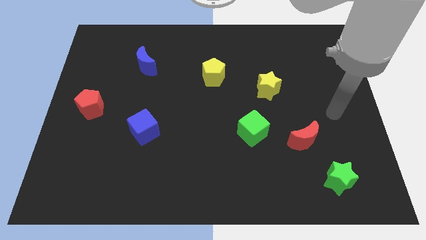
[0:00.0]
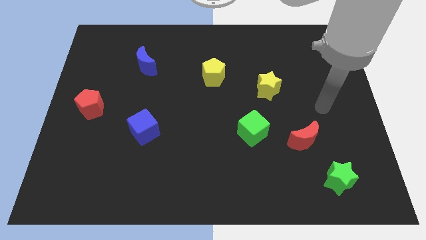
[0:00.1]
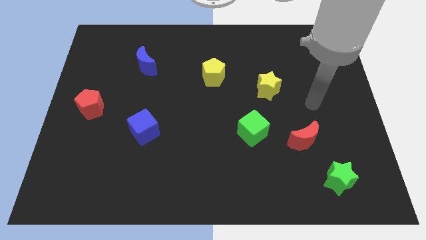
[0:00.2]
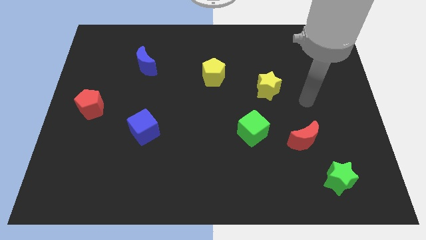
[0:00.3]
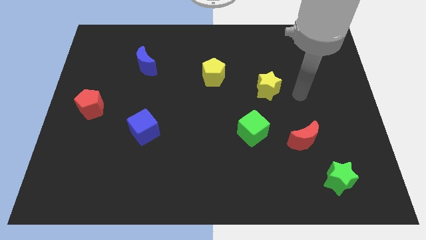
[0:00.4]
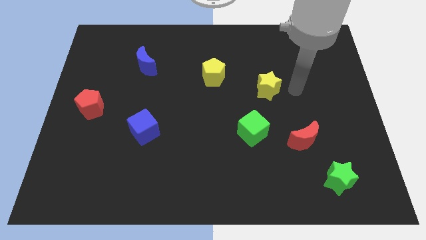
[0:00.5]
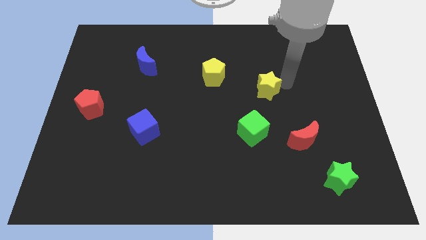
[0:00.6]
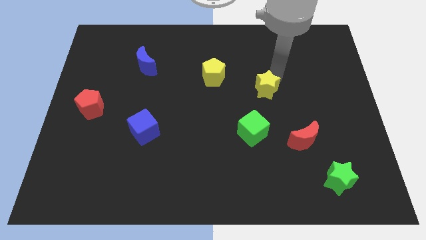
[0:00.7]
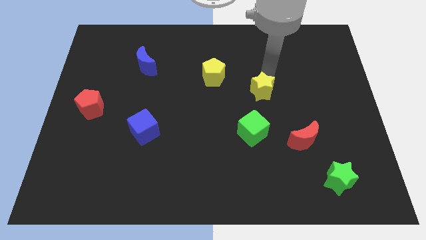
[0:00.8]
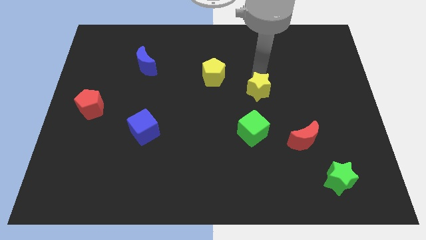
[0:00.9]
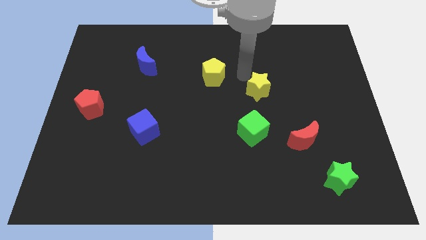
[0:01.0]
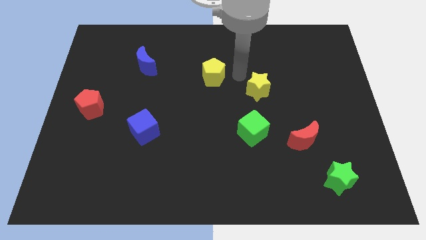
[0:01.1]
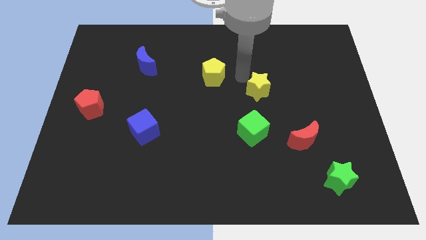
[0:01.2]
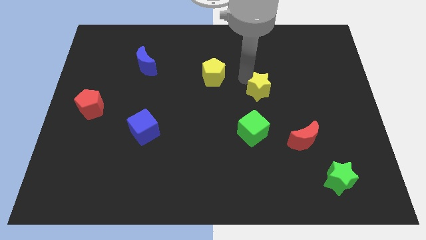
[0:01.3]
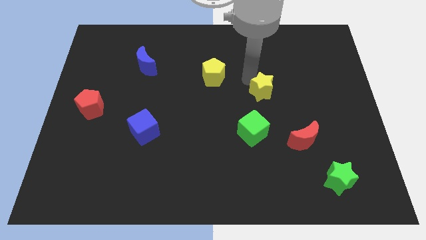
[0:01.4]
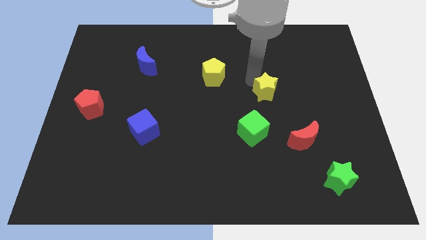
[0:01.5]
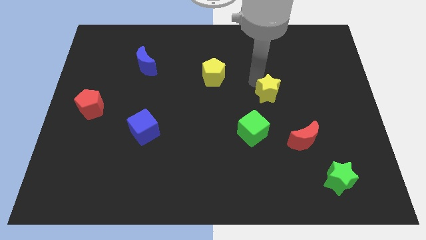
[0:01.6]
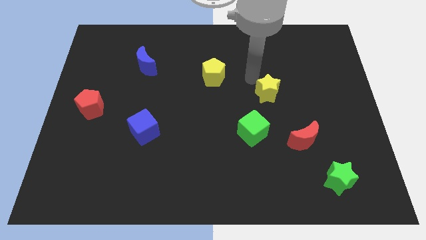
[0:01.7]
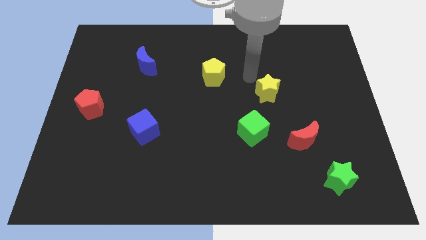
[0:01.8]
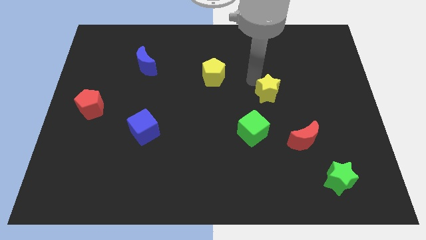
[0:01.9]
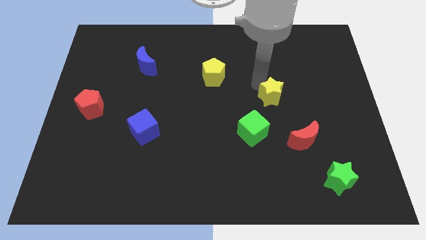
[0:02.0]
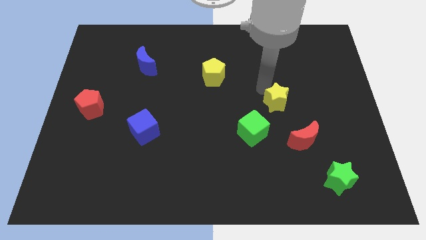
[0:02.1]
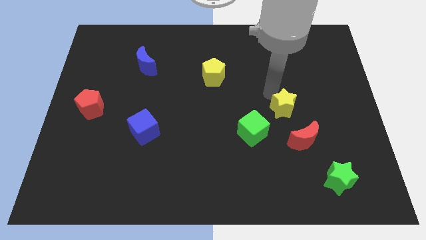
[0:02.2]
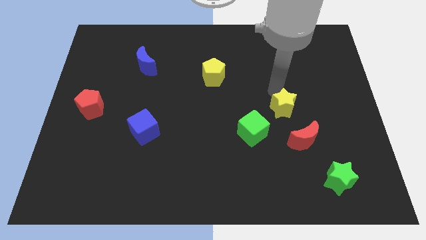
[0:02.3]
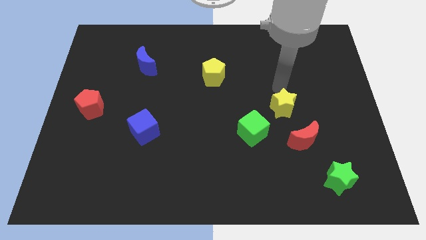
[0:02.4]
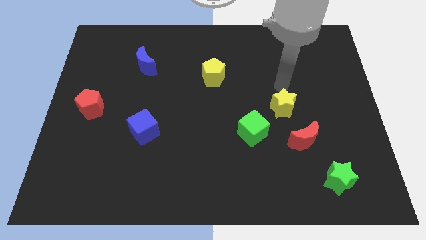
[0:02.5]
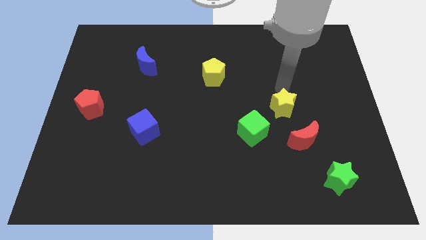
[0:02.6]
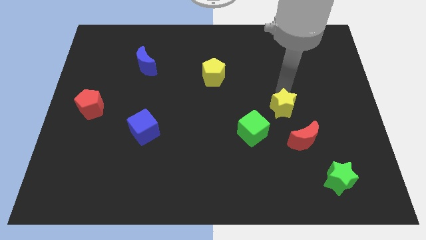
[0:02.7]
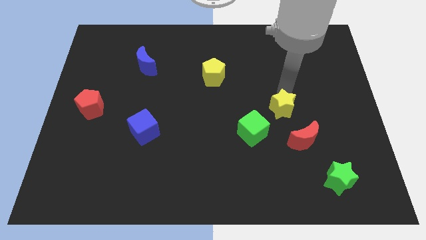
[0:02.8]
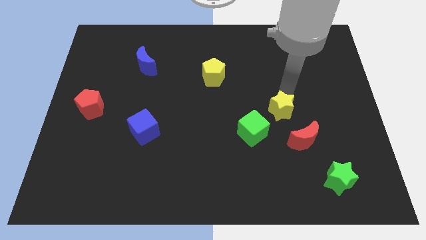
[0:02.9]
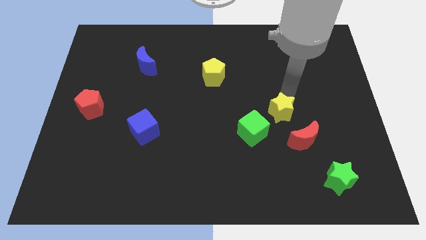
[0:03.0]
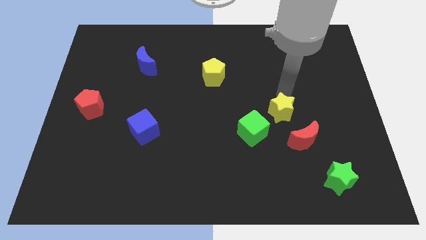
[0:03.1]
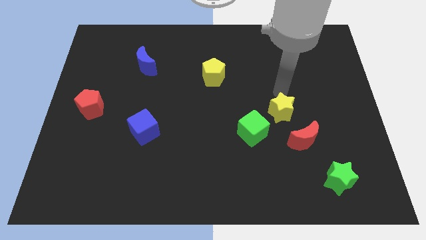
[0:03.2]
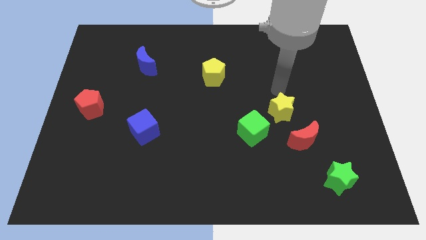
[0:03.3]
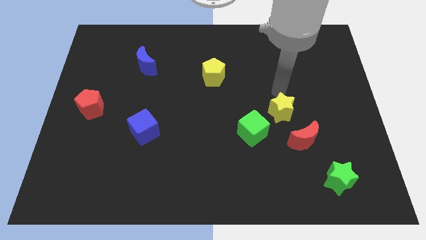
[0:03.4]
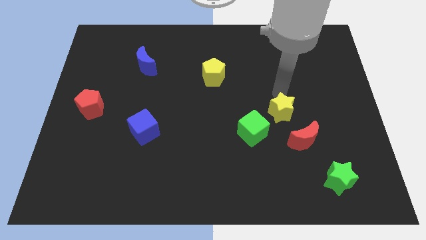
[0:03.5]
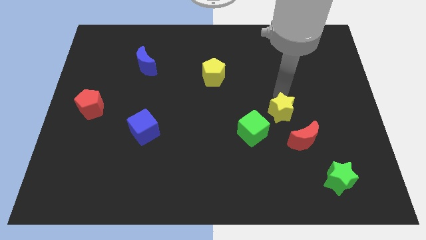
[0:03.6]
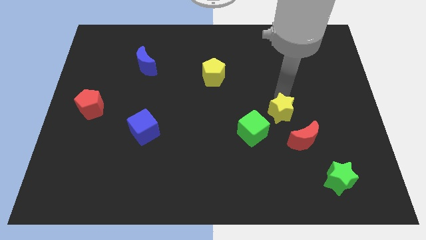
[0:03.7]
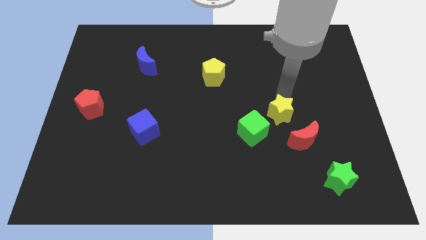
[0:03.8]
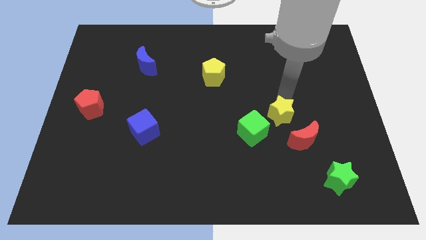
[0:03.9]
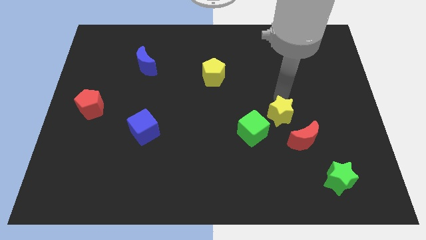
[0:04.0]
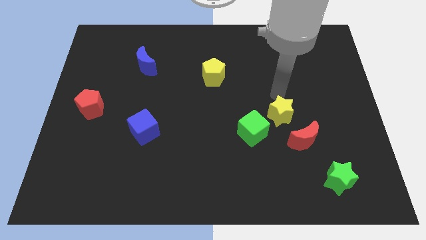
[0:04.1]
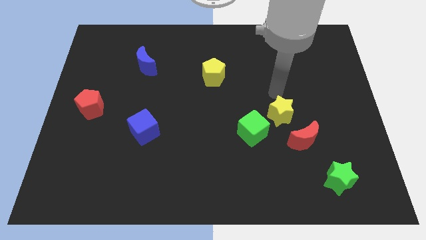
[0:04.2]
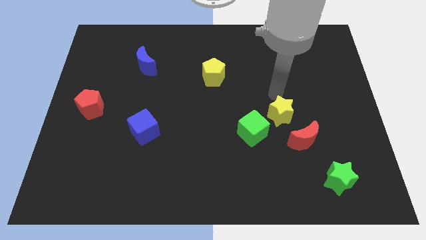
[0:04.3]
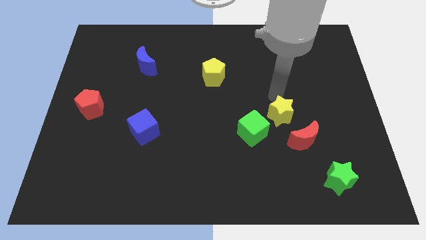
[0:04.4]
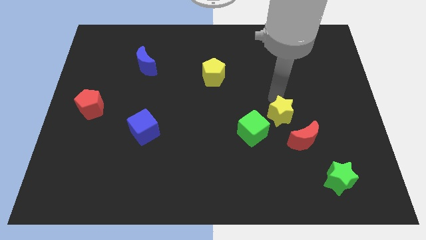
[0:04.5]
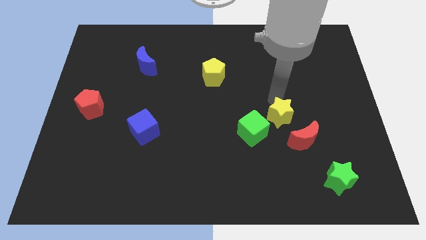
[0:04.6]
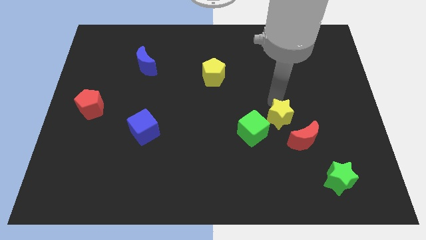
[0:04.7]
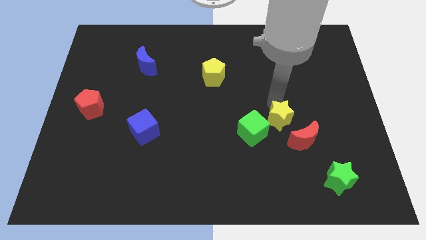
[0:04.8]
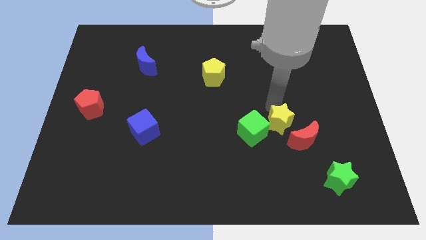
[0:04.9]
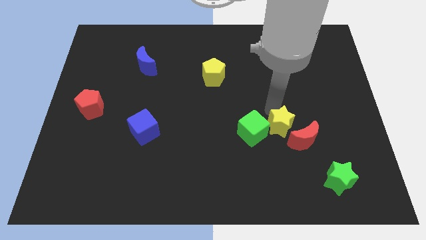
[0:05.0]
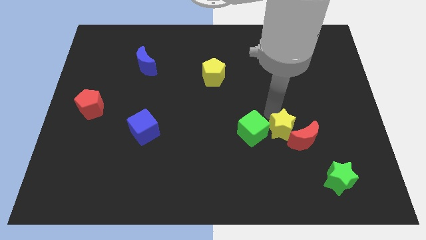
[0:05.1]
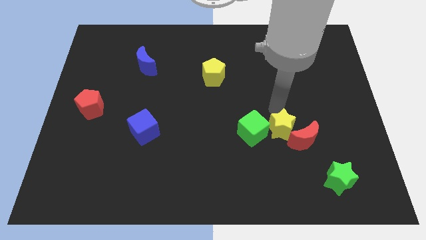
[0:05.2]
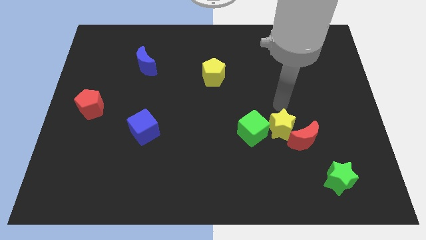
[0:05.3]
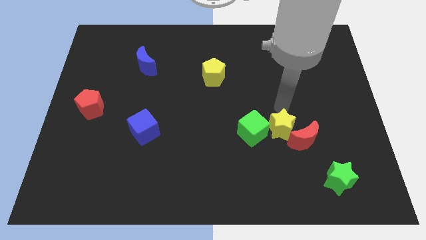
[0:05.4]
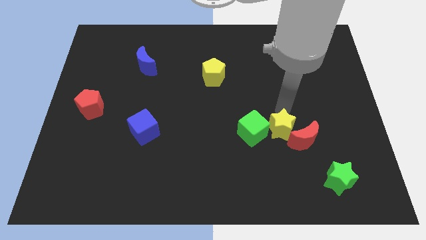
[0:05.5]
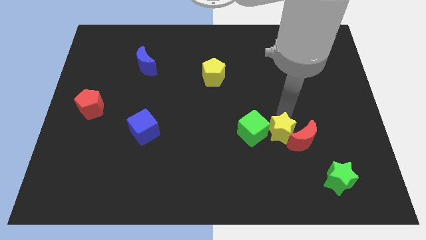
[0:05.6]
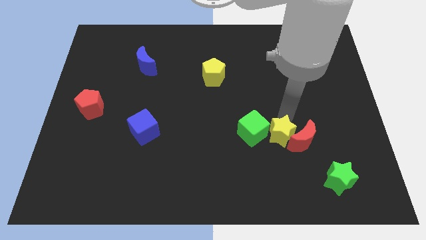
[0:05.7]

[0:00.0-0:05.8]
put the yellow star to the bottom left of the red moon
